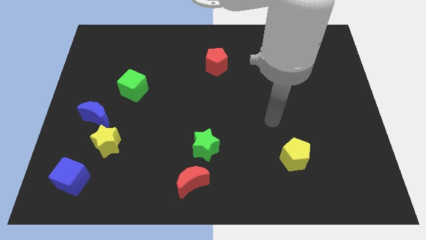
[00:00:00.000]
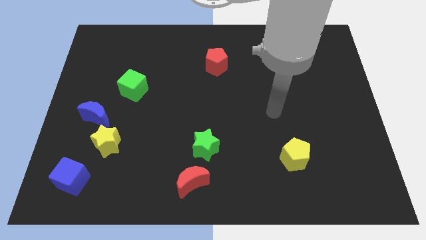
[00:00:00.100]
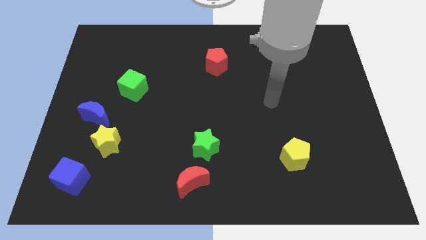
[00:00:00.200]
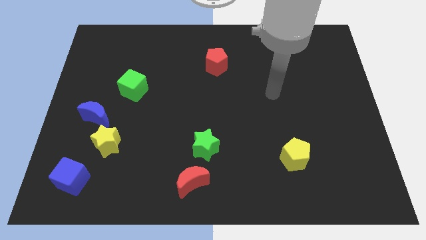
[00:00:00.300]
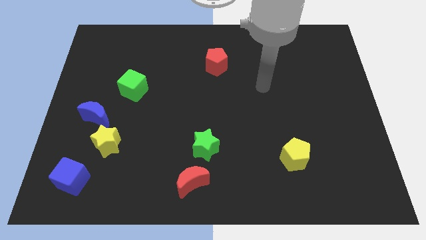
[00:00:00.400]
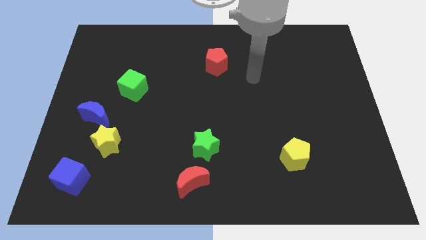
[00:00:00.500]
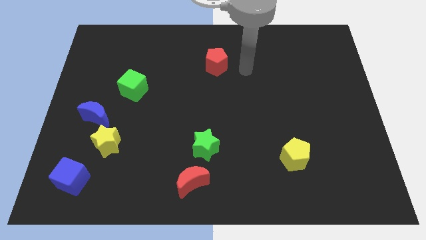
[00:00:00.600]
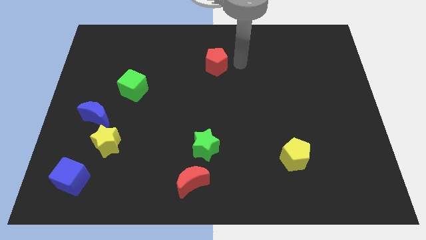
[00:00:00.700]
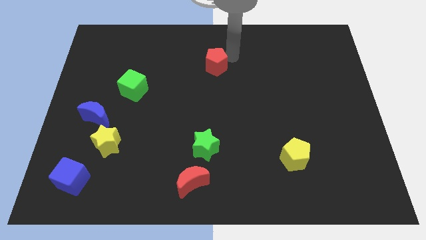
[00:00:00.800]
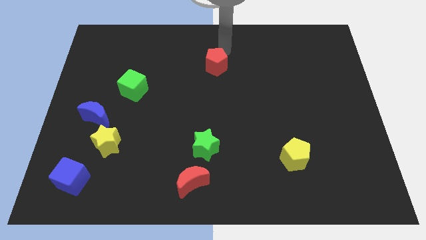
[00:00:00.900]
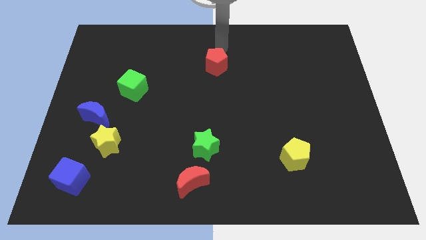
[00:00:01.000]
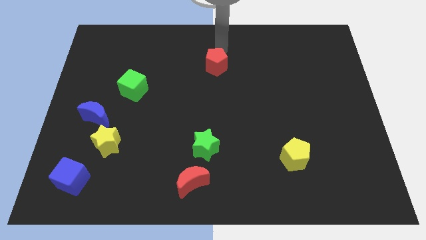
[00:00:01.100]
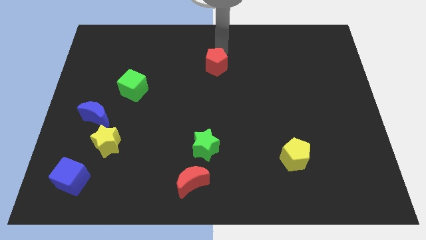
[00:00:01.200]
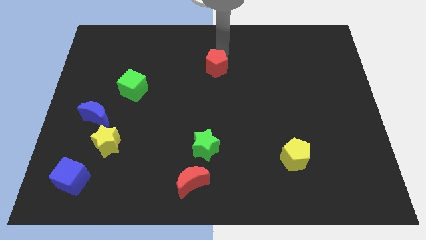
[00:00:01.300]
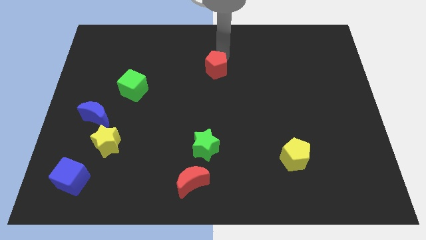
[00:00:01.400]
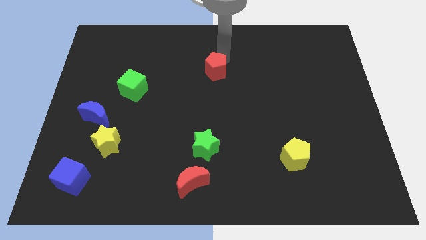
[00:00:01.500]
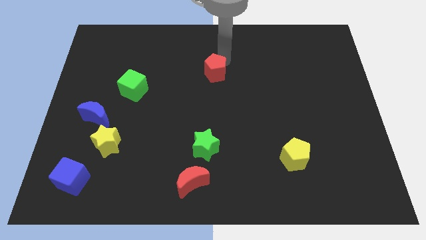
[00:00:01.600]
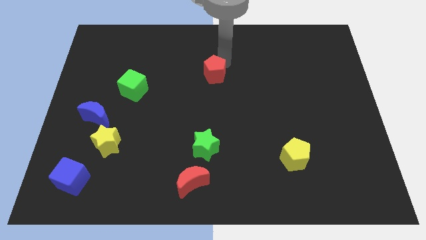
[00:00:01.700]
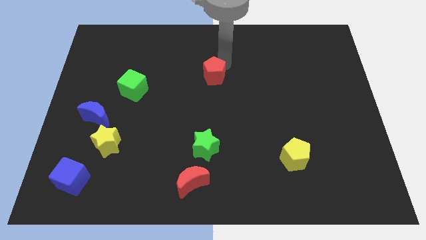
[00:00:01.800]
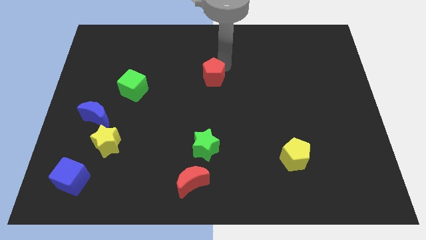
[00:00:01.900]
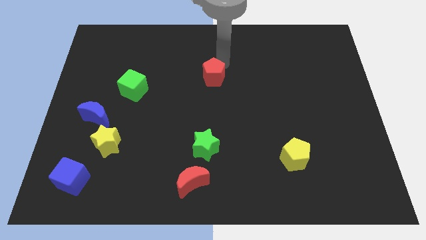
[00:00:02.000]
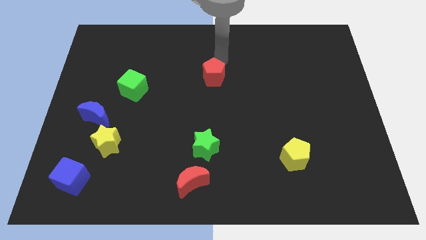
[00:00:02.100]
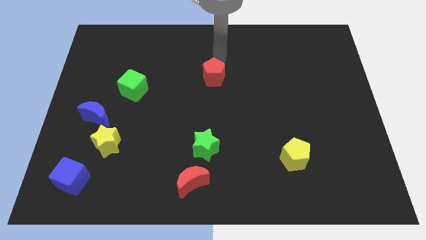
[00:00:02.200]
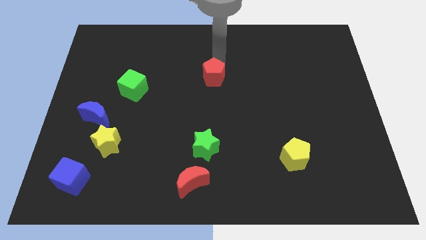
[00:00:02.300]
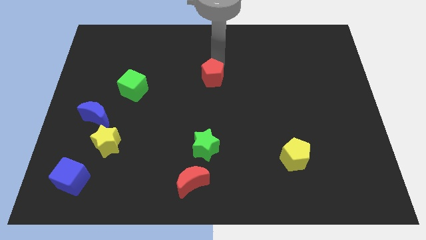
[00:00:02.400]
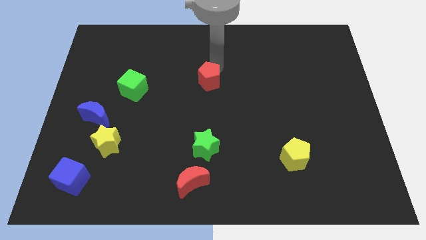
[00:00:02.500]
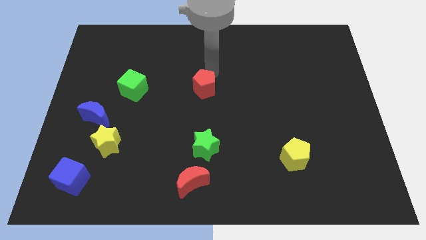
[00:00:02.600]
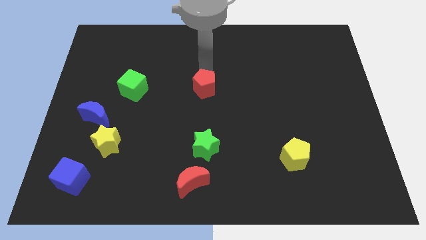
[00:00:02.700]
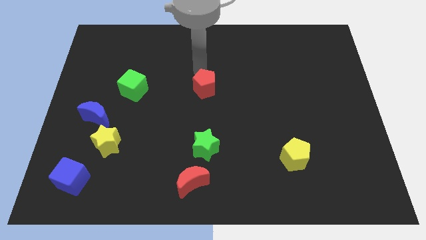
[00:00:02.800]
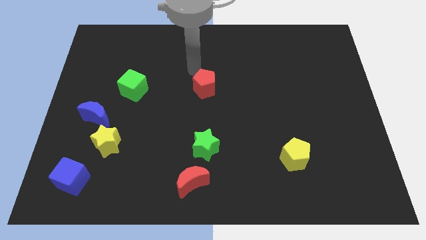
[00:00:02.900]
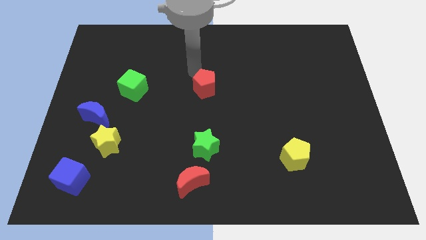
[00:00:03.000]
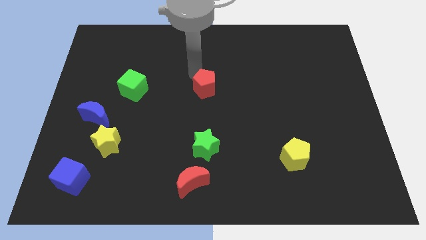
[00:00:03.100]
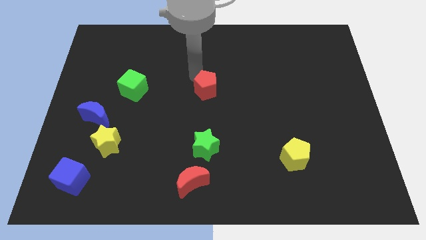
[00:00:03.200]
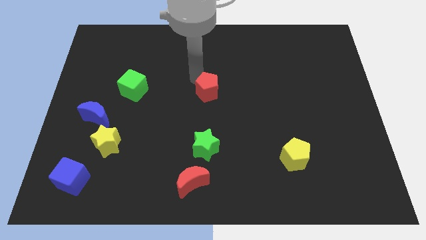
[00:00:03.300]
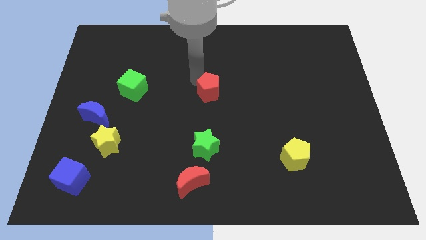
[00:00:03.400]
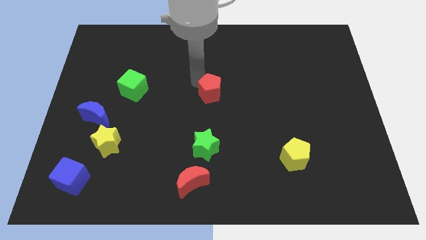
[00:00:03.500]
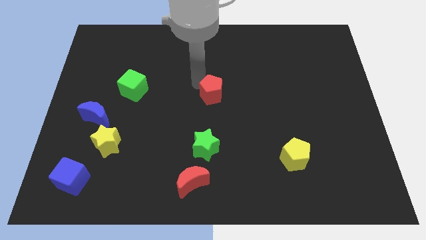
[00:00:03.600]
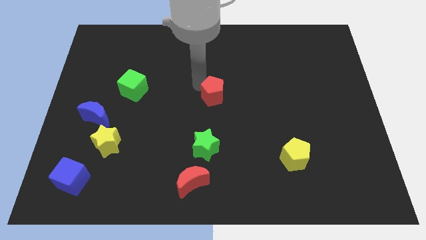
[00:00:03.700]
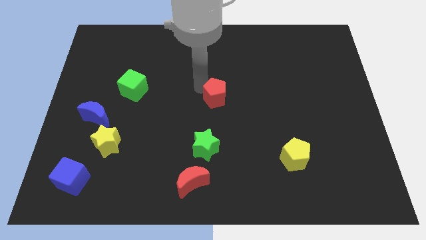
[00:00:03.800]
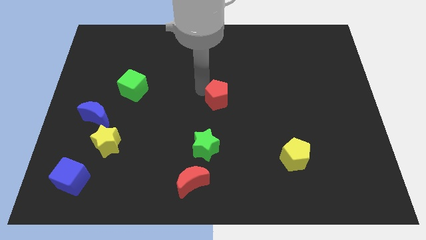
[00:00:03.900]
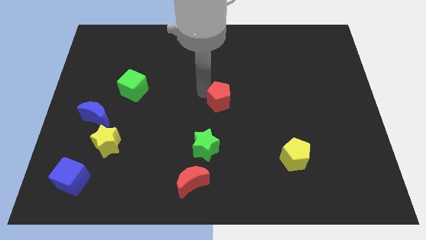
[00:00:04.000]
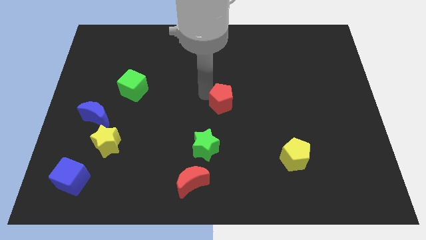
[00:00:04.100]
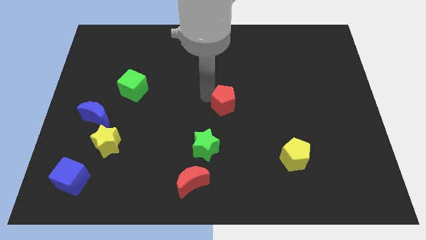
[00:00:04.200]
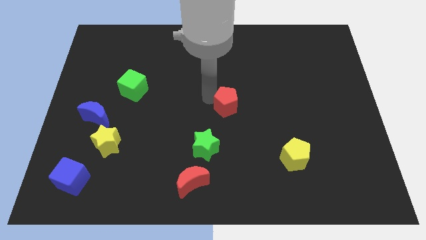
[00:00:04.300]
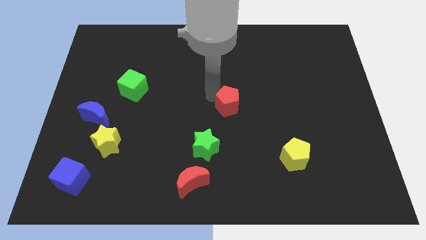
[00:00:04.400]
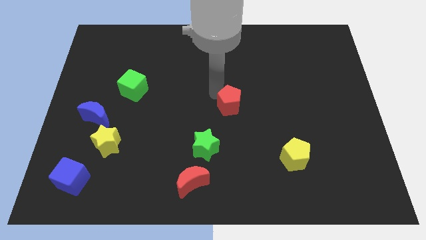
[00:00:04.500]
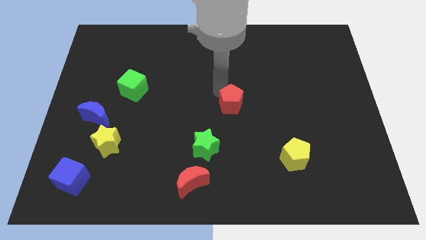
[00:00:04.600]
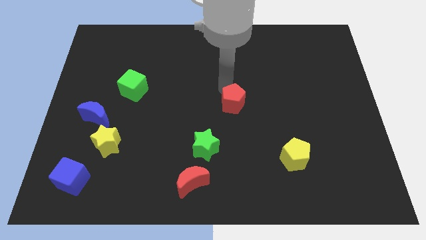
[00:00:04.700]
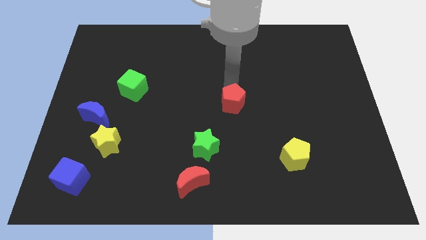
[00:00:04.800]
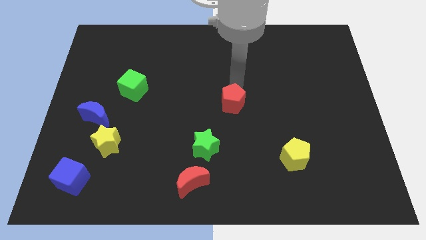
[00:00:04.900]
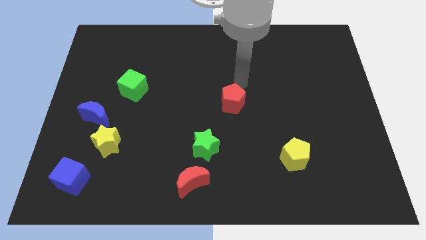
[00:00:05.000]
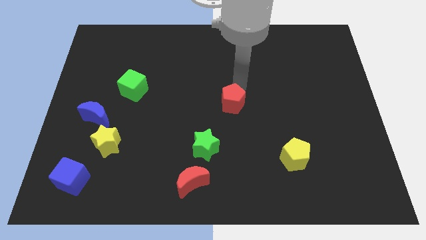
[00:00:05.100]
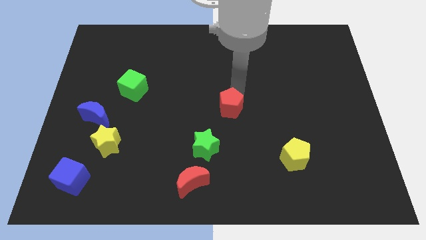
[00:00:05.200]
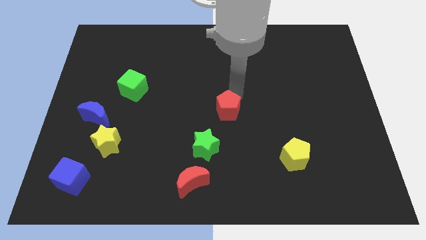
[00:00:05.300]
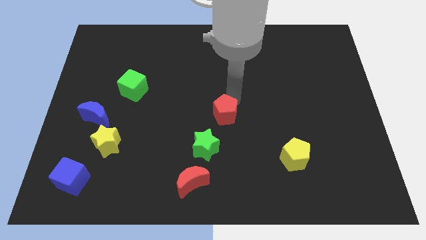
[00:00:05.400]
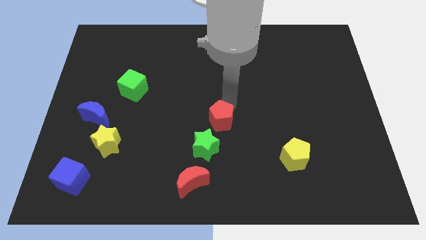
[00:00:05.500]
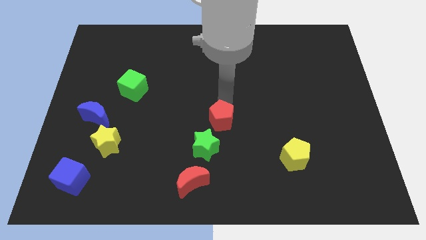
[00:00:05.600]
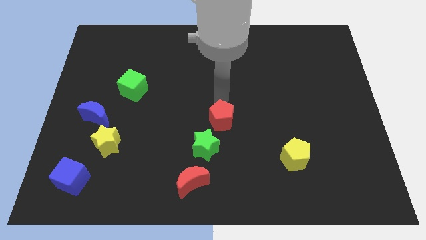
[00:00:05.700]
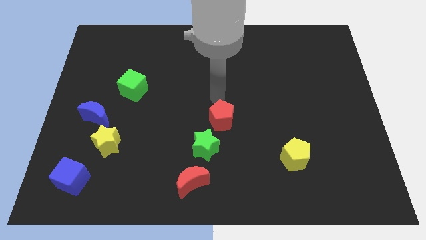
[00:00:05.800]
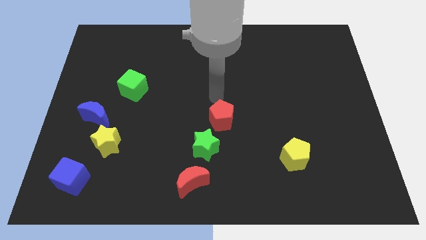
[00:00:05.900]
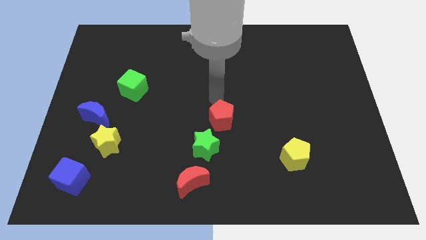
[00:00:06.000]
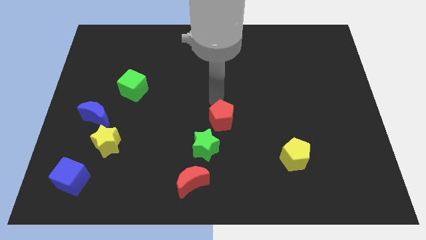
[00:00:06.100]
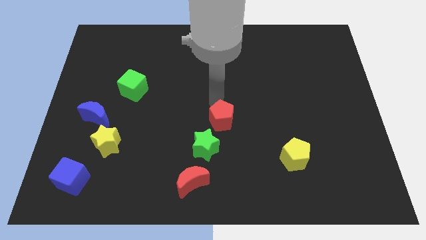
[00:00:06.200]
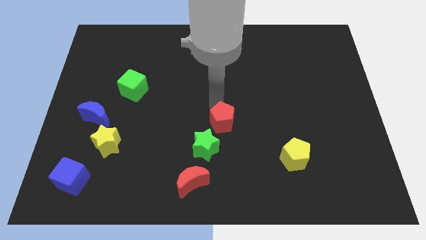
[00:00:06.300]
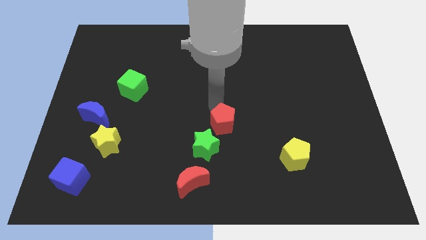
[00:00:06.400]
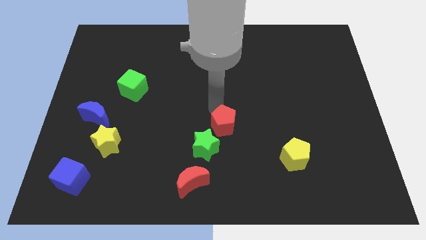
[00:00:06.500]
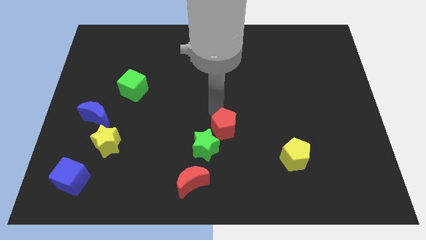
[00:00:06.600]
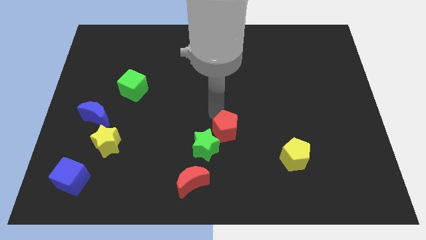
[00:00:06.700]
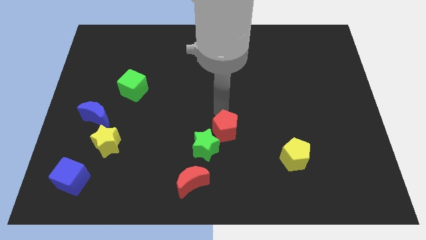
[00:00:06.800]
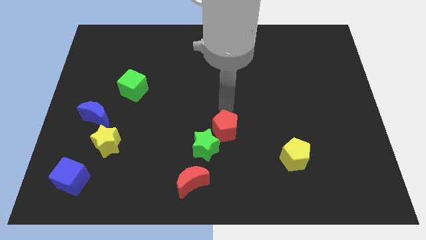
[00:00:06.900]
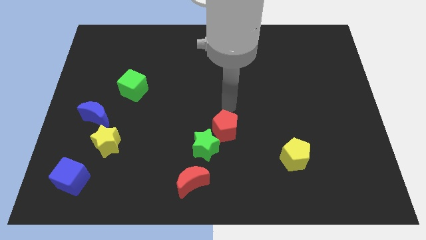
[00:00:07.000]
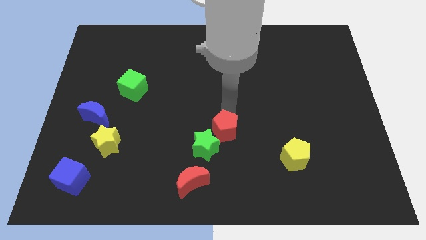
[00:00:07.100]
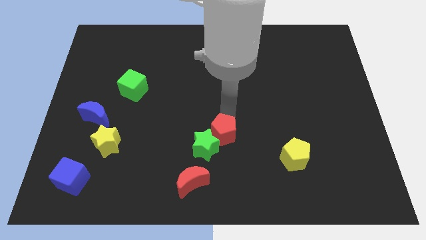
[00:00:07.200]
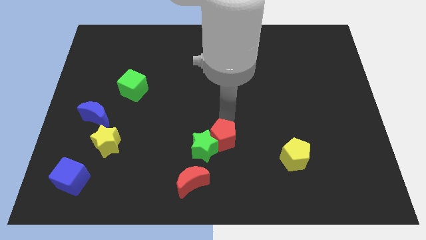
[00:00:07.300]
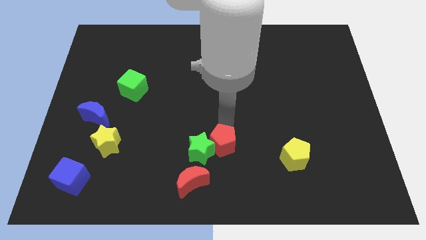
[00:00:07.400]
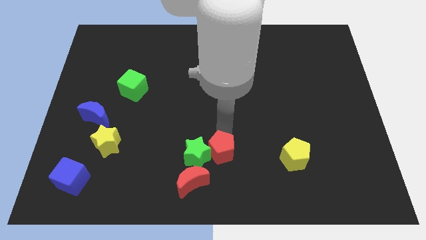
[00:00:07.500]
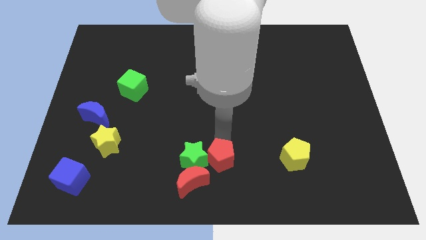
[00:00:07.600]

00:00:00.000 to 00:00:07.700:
push the red pentagon to the bottom side
